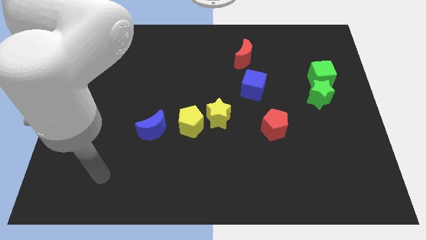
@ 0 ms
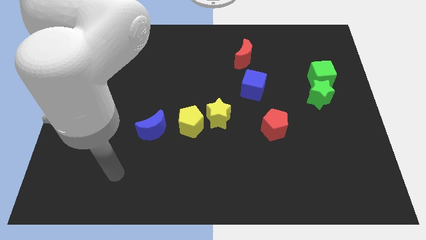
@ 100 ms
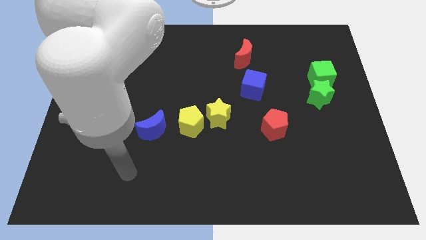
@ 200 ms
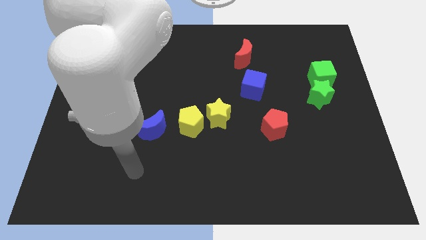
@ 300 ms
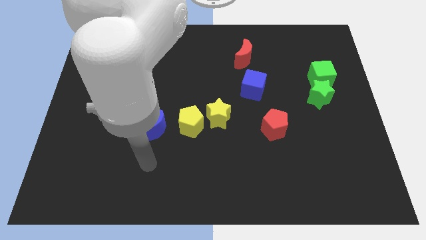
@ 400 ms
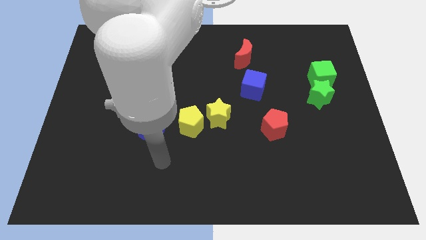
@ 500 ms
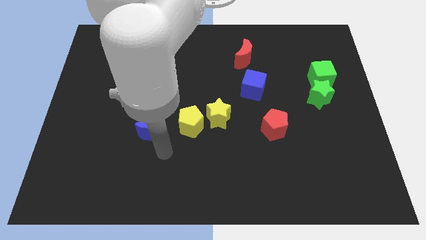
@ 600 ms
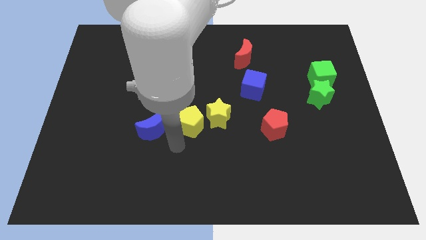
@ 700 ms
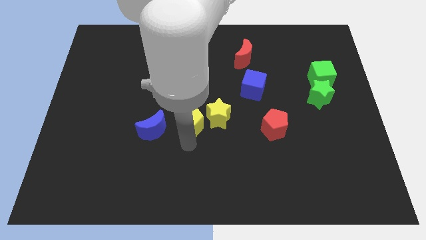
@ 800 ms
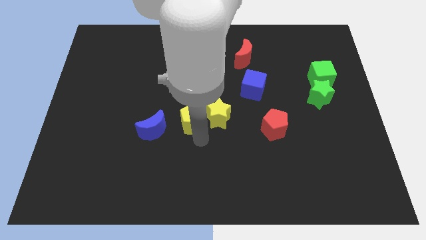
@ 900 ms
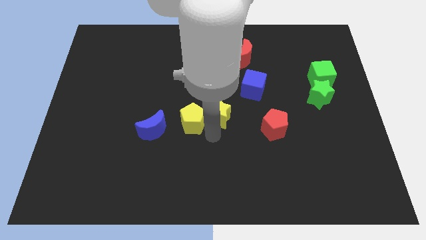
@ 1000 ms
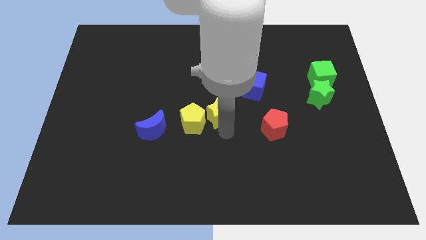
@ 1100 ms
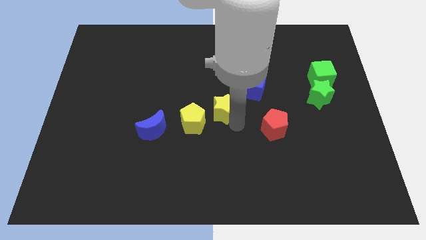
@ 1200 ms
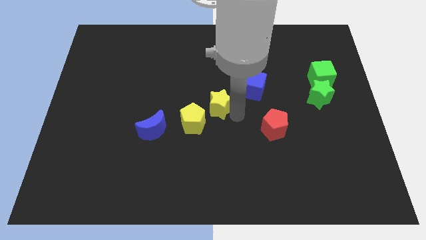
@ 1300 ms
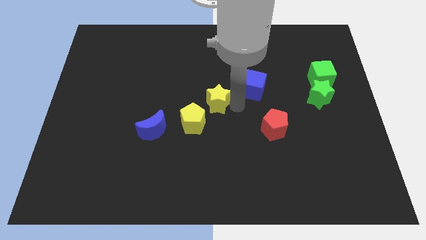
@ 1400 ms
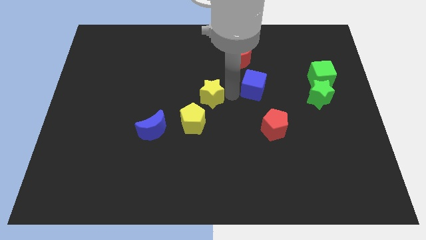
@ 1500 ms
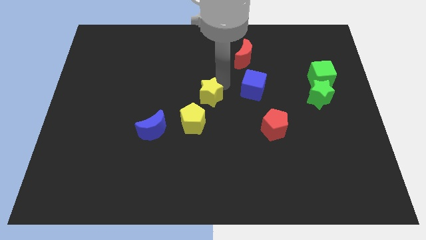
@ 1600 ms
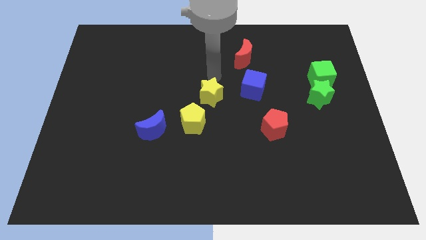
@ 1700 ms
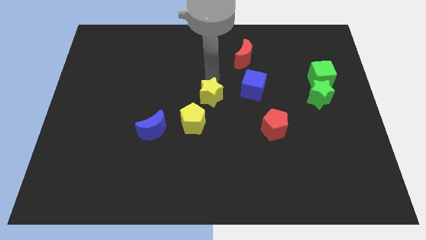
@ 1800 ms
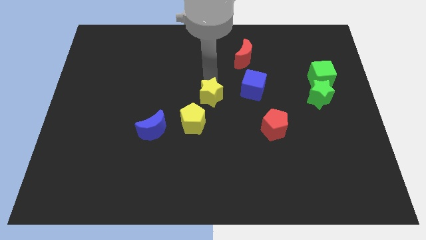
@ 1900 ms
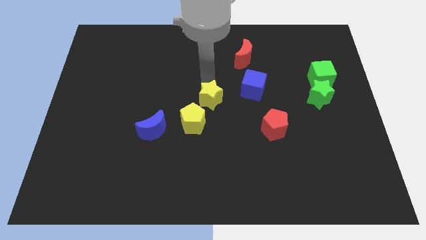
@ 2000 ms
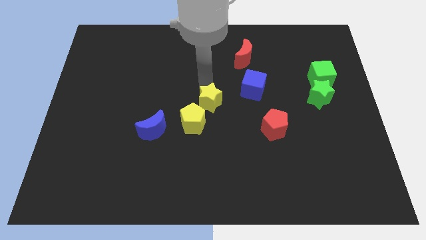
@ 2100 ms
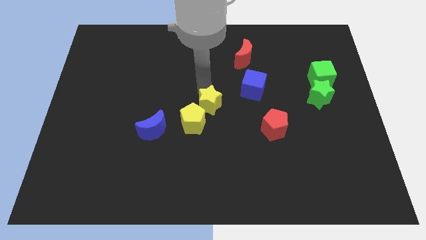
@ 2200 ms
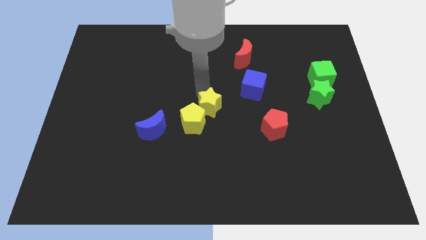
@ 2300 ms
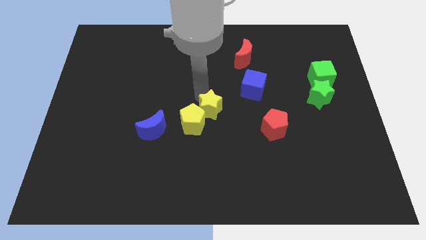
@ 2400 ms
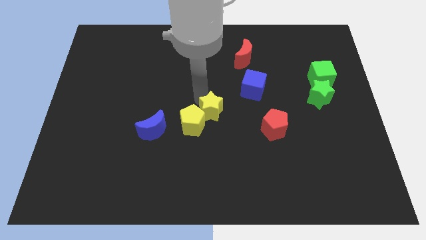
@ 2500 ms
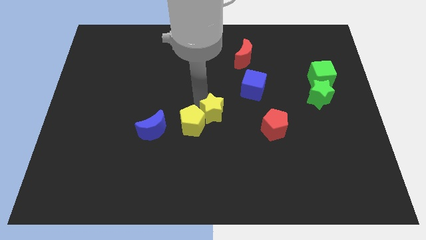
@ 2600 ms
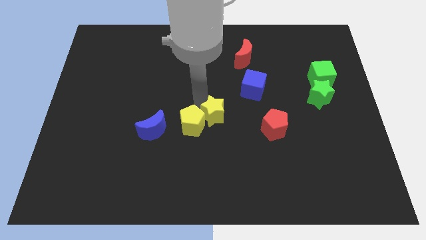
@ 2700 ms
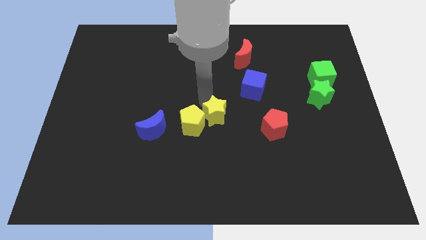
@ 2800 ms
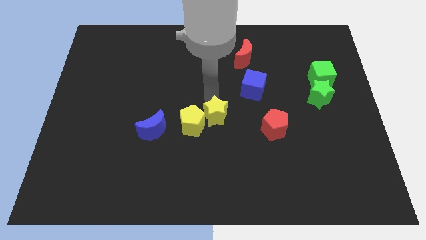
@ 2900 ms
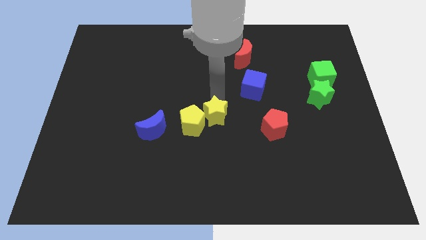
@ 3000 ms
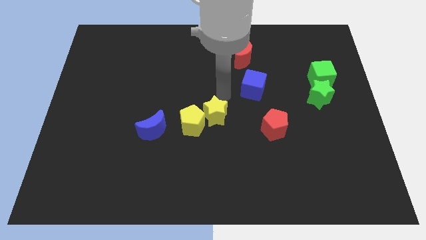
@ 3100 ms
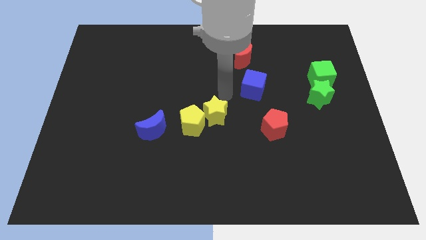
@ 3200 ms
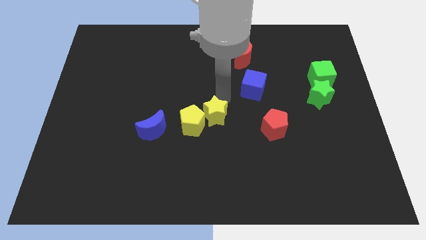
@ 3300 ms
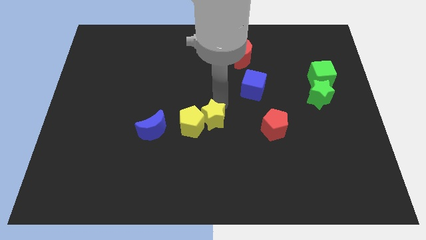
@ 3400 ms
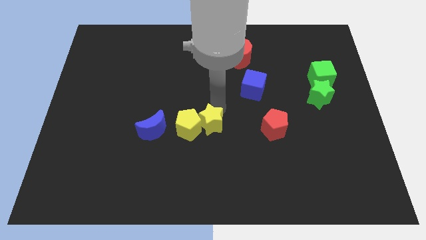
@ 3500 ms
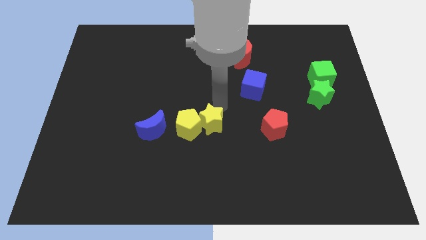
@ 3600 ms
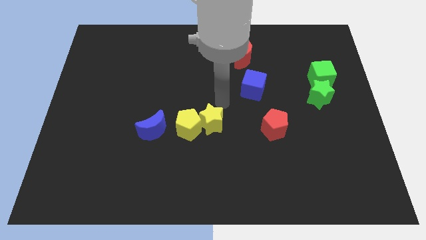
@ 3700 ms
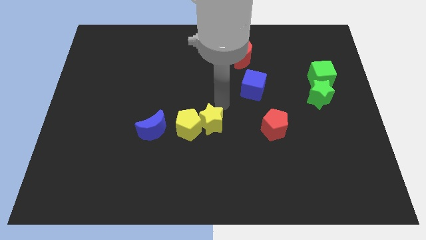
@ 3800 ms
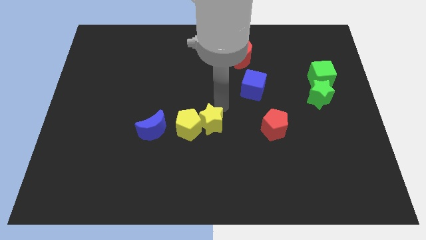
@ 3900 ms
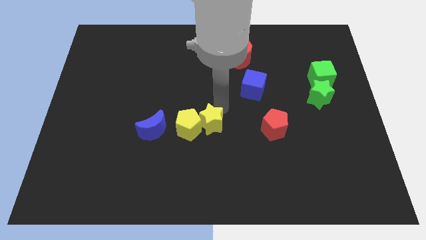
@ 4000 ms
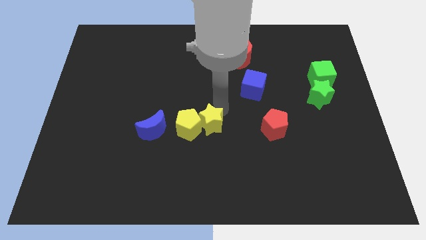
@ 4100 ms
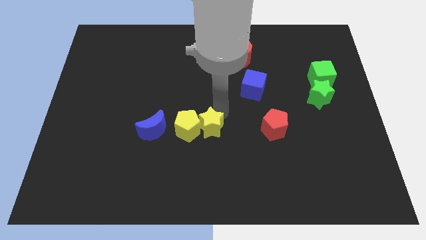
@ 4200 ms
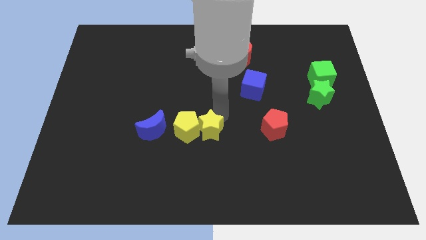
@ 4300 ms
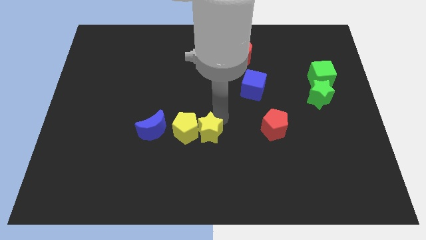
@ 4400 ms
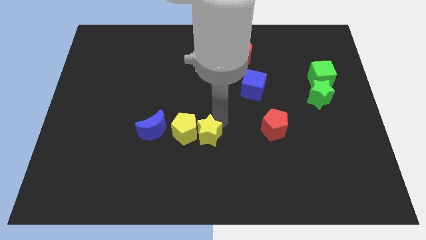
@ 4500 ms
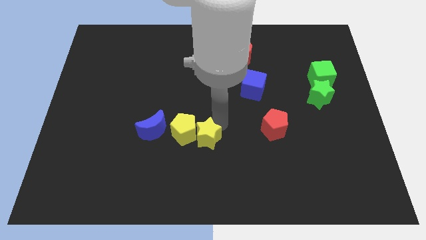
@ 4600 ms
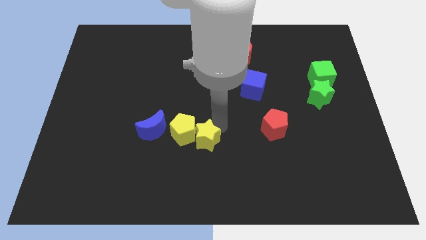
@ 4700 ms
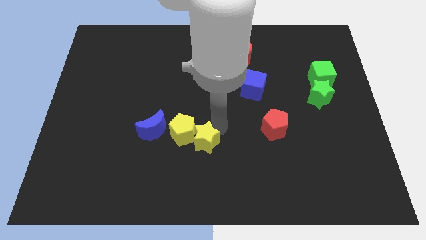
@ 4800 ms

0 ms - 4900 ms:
push the yellow star a little bit downwards and left

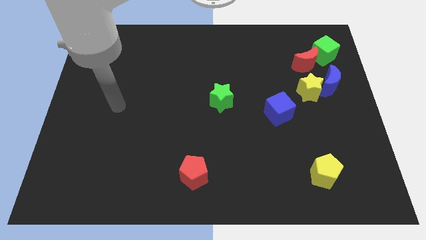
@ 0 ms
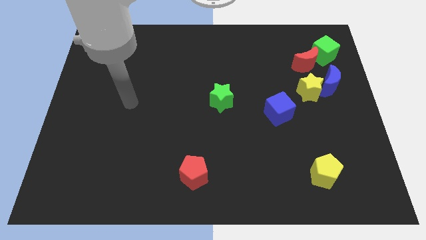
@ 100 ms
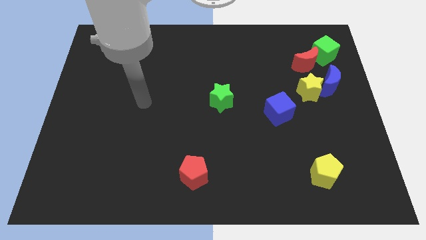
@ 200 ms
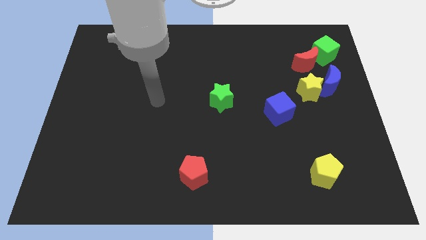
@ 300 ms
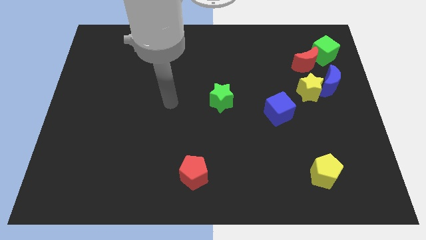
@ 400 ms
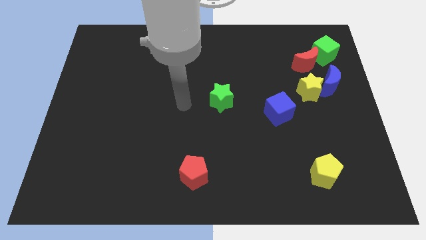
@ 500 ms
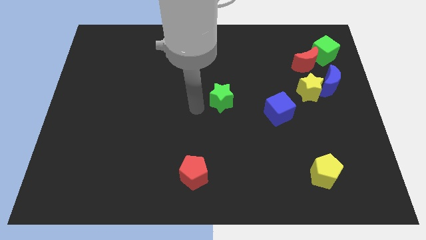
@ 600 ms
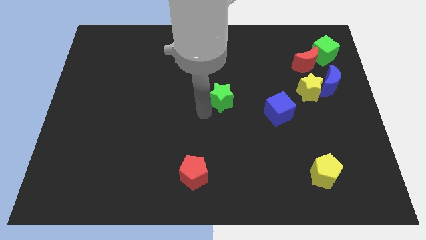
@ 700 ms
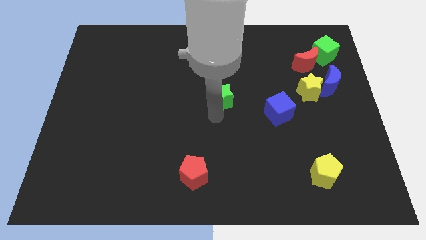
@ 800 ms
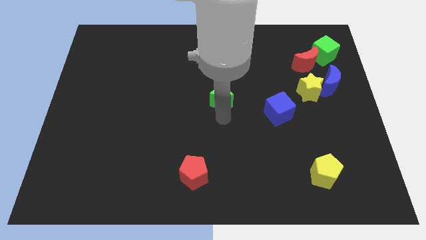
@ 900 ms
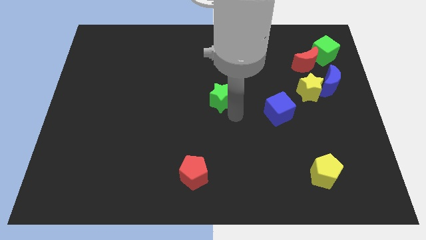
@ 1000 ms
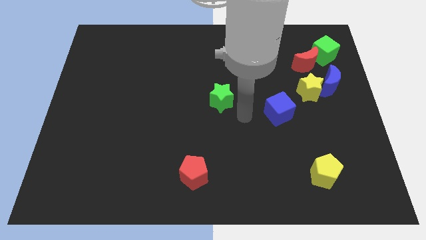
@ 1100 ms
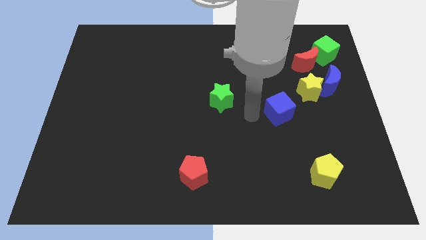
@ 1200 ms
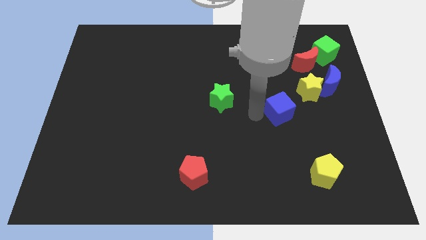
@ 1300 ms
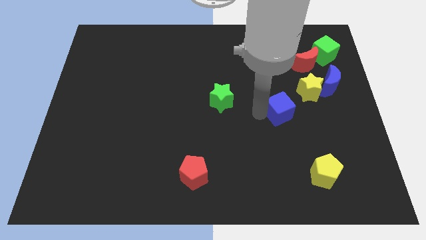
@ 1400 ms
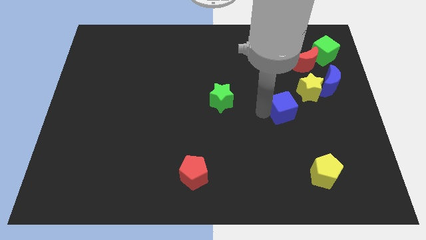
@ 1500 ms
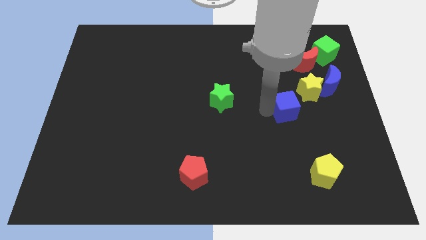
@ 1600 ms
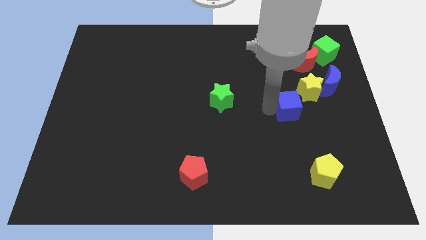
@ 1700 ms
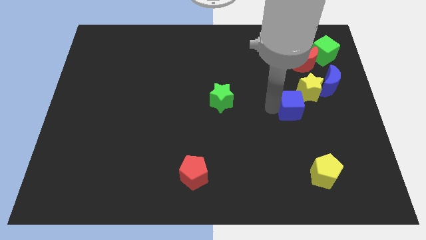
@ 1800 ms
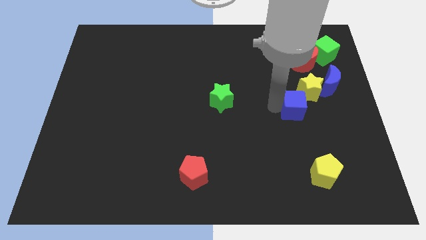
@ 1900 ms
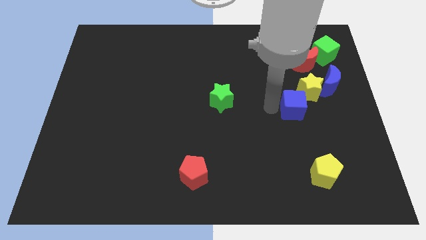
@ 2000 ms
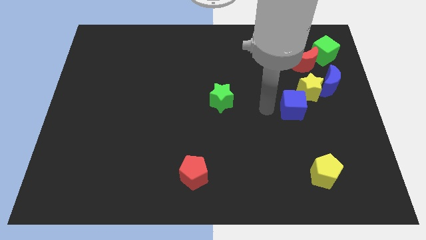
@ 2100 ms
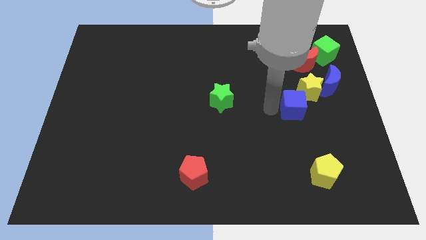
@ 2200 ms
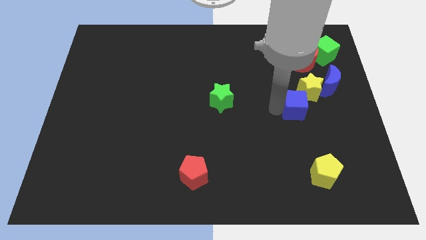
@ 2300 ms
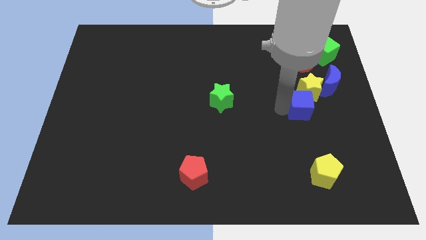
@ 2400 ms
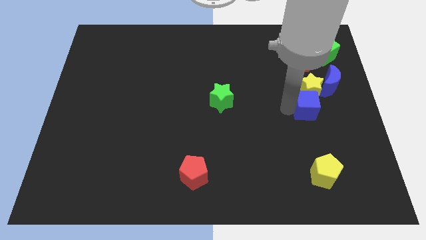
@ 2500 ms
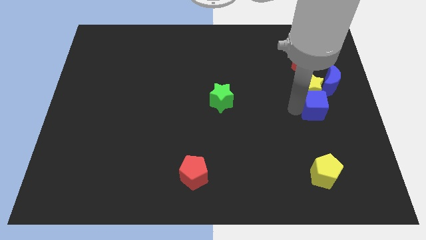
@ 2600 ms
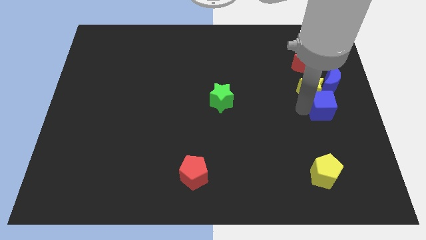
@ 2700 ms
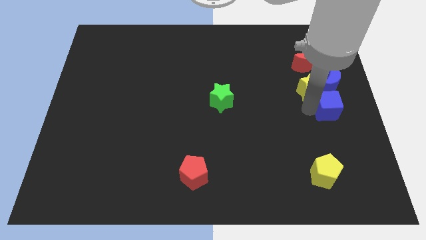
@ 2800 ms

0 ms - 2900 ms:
push the blue cube a little bit upwards and right

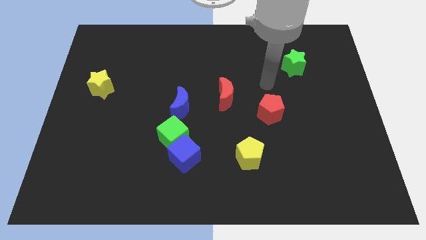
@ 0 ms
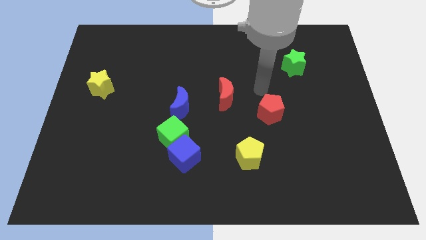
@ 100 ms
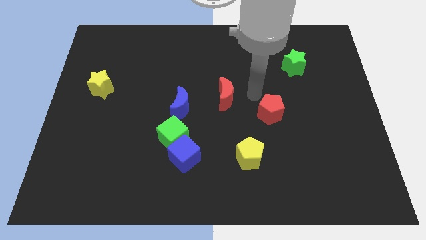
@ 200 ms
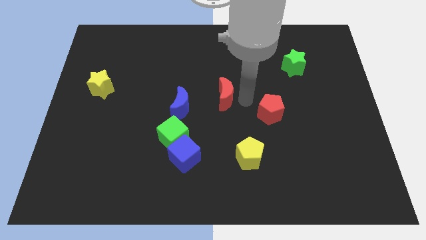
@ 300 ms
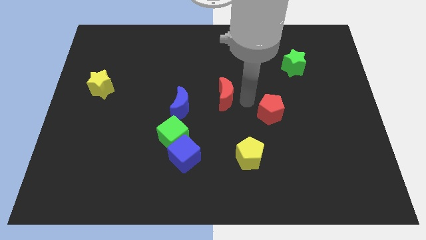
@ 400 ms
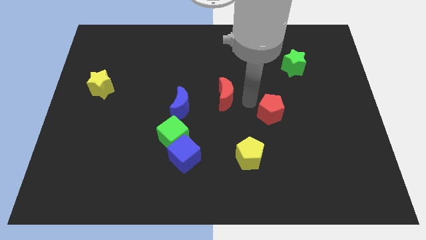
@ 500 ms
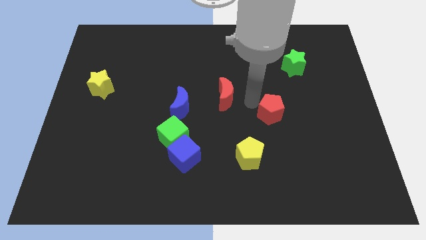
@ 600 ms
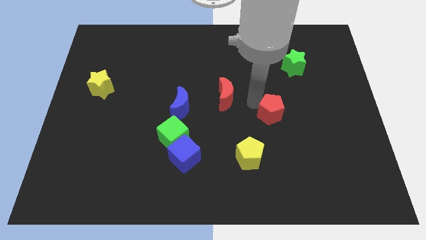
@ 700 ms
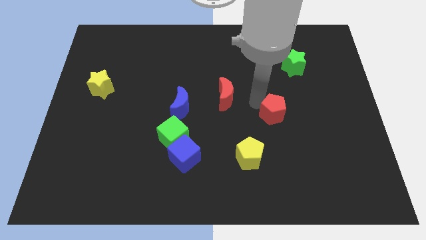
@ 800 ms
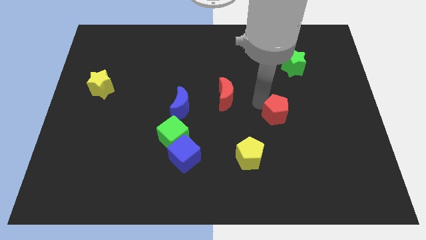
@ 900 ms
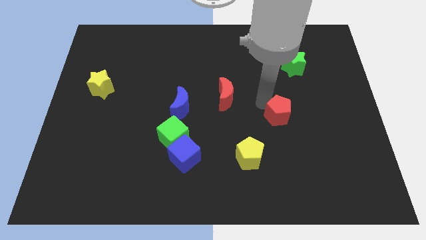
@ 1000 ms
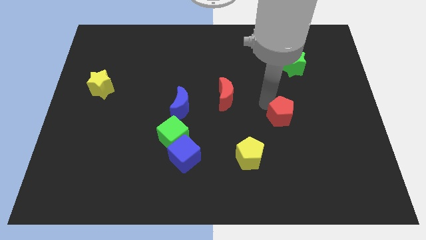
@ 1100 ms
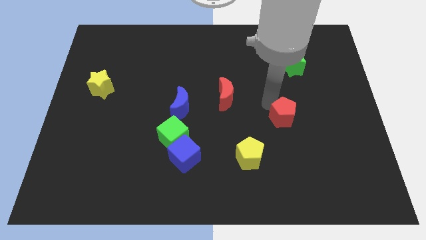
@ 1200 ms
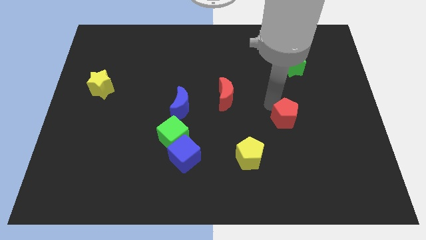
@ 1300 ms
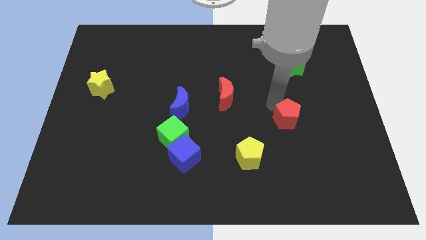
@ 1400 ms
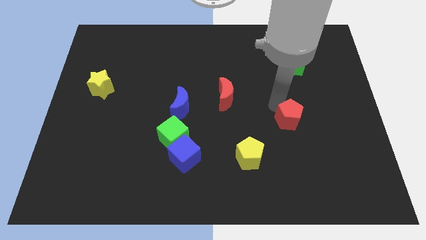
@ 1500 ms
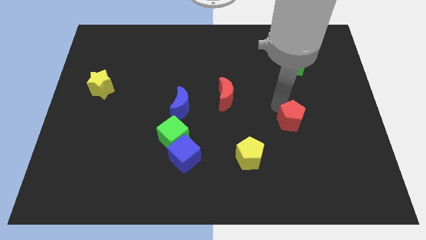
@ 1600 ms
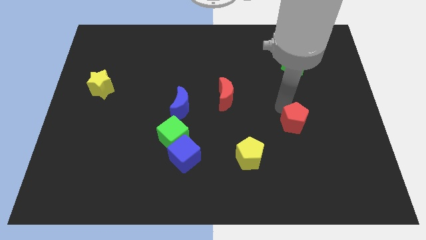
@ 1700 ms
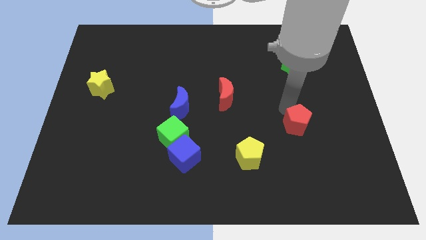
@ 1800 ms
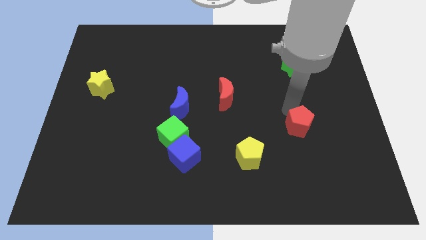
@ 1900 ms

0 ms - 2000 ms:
slide the red pentagon slightly diagonally downwards and right
